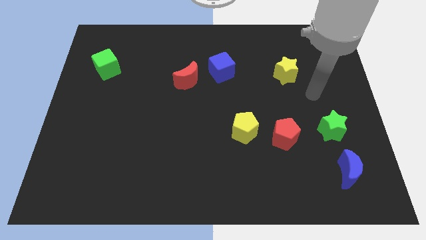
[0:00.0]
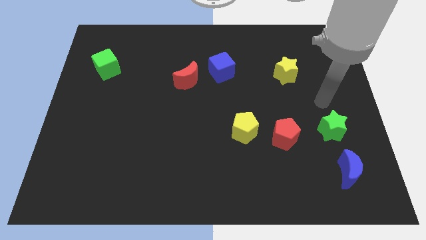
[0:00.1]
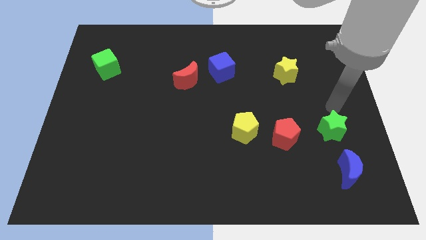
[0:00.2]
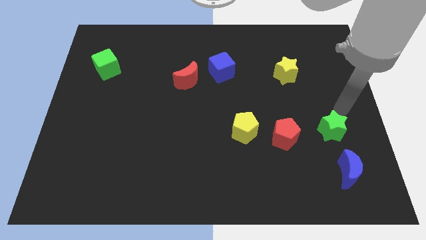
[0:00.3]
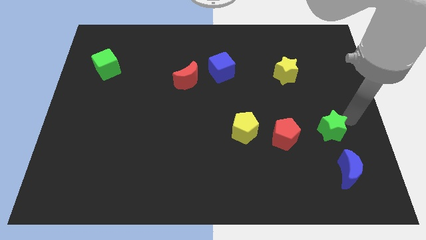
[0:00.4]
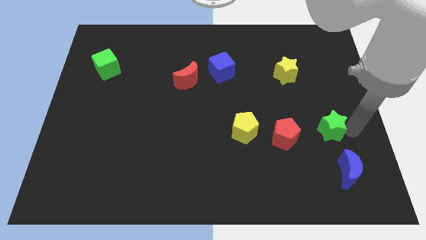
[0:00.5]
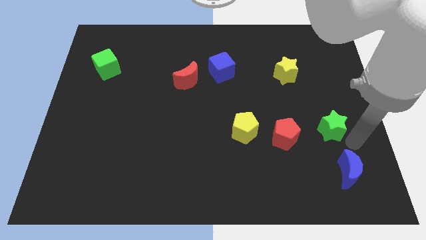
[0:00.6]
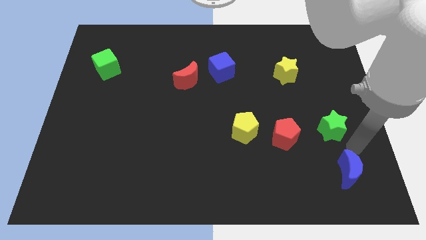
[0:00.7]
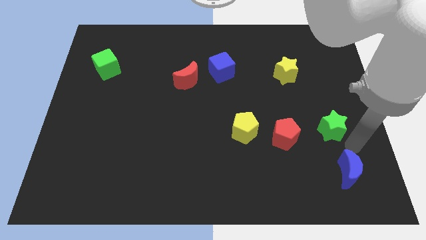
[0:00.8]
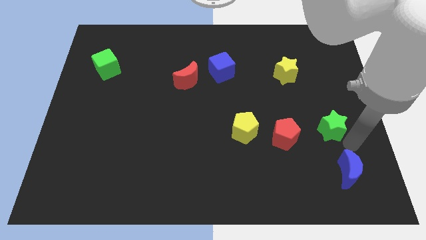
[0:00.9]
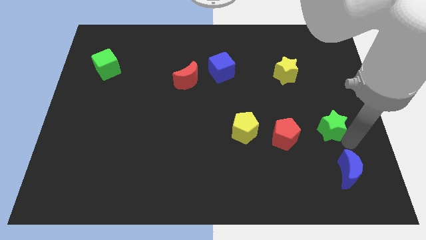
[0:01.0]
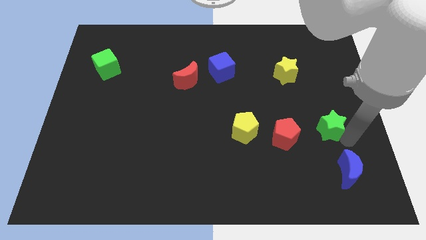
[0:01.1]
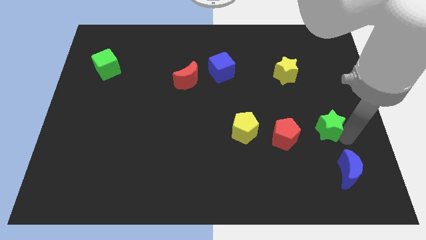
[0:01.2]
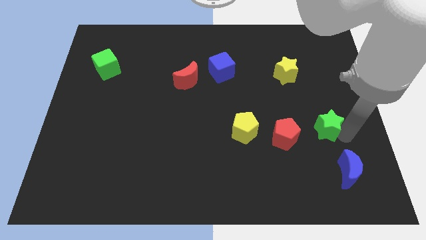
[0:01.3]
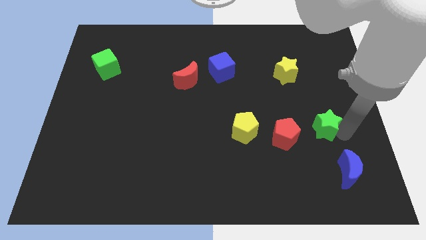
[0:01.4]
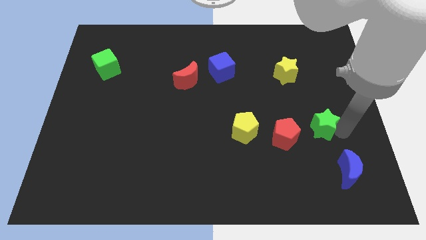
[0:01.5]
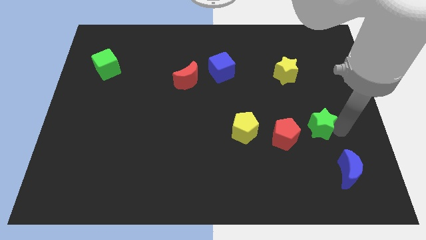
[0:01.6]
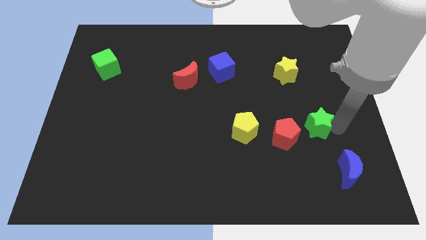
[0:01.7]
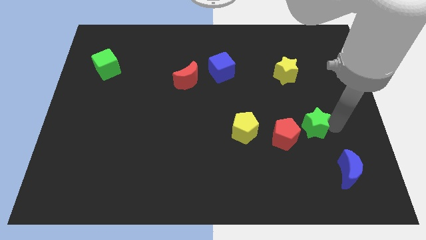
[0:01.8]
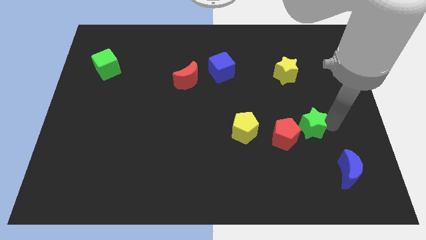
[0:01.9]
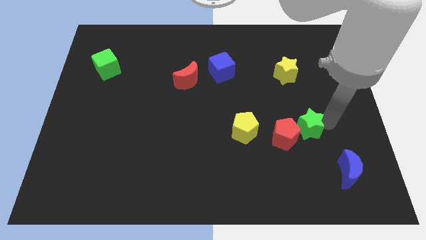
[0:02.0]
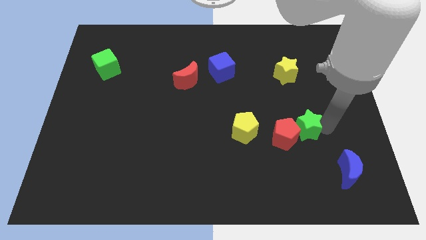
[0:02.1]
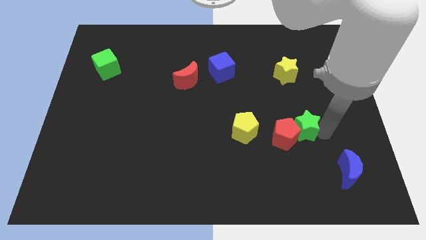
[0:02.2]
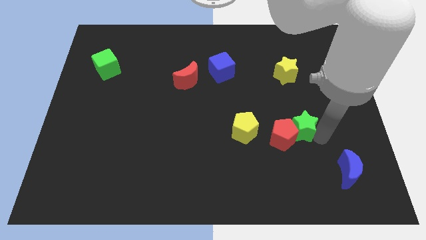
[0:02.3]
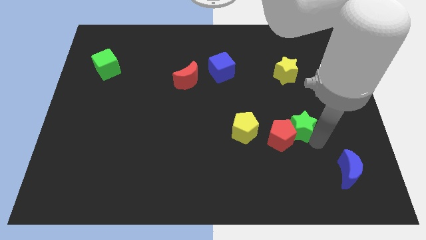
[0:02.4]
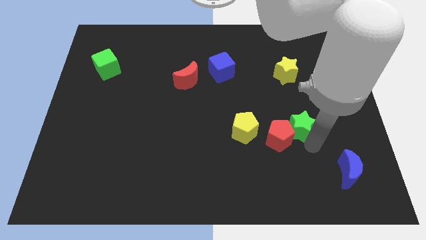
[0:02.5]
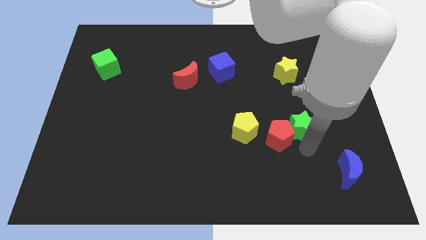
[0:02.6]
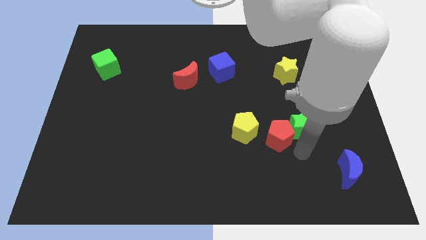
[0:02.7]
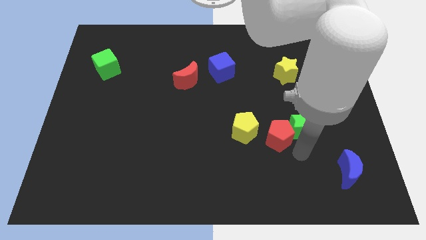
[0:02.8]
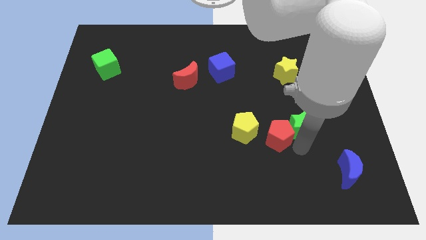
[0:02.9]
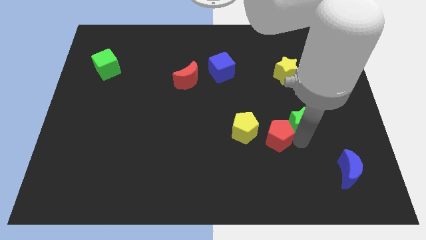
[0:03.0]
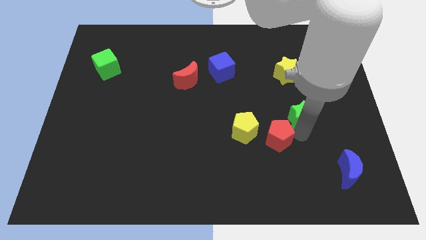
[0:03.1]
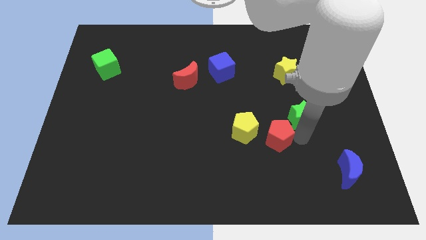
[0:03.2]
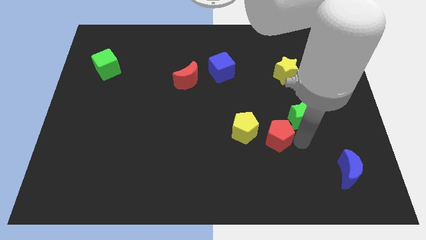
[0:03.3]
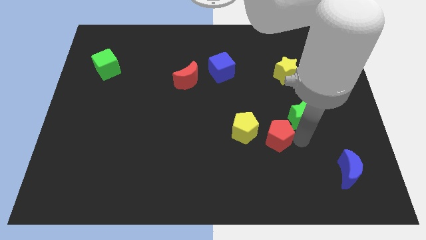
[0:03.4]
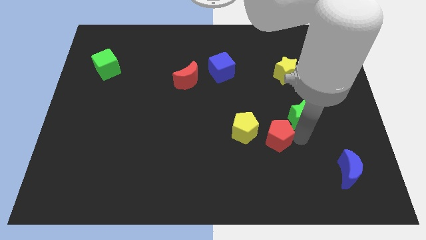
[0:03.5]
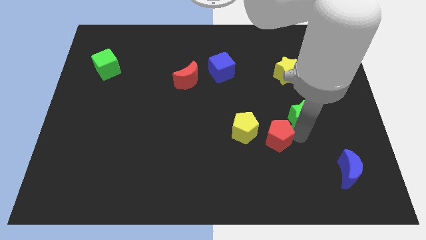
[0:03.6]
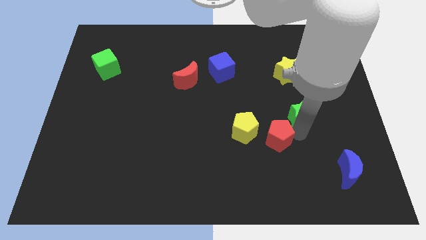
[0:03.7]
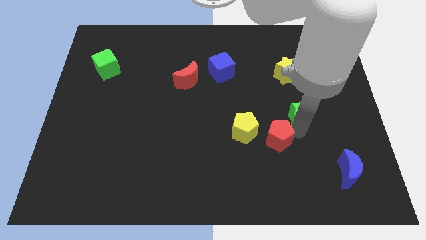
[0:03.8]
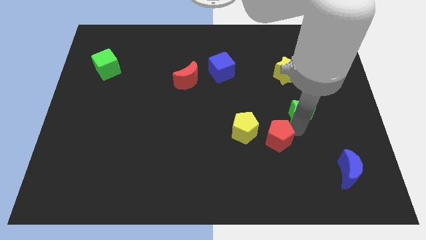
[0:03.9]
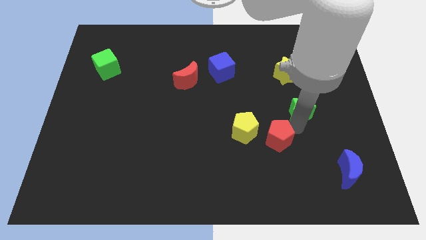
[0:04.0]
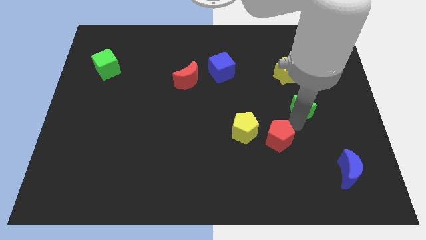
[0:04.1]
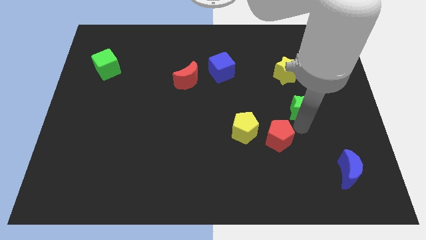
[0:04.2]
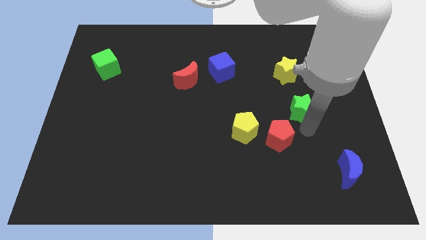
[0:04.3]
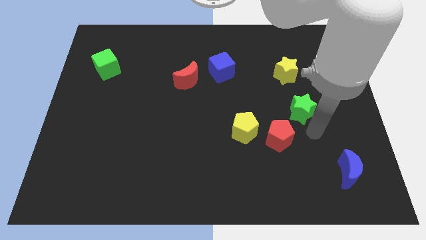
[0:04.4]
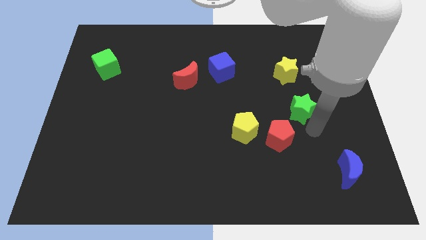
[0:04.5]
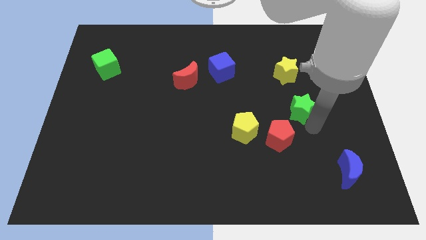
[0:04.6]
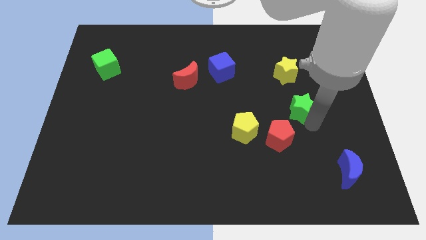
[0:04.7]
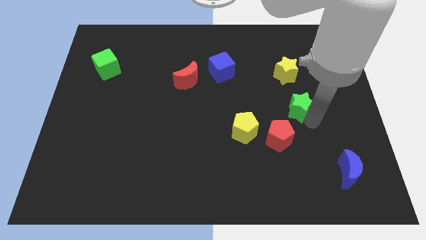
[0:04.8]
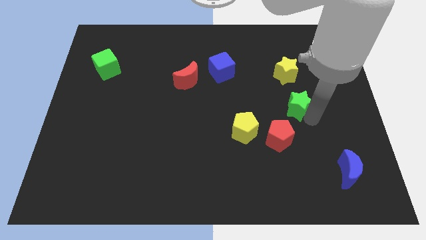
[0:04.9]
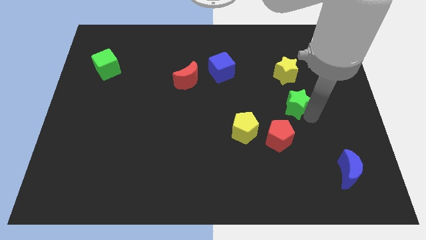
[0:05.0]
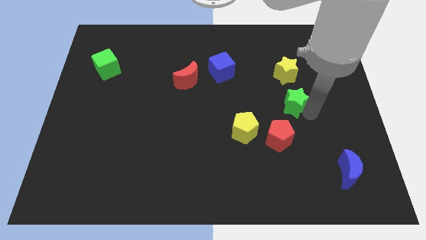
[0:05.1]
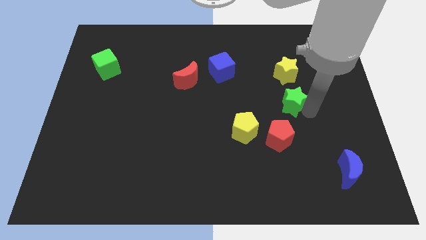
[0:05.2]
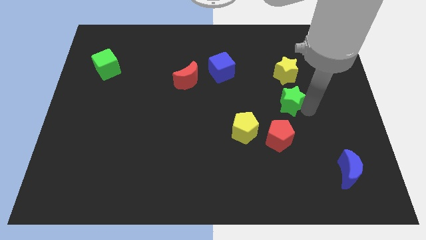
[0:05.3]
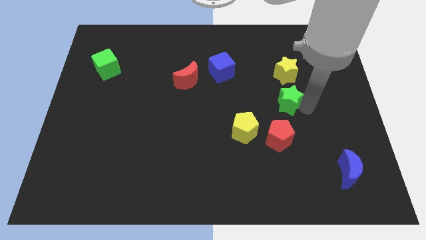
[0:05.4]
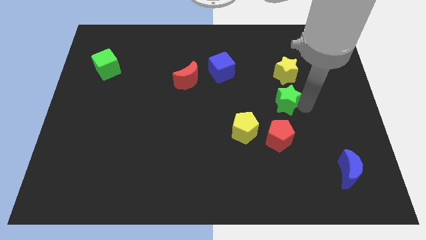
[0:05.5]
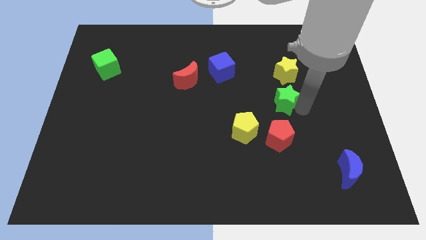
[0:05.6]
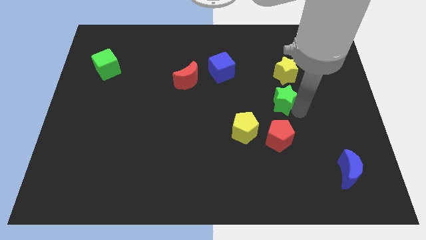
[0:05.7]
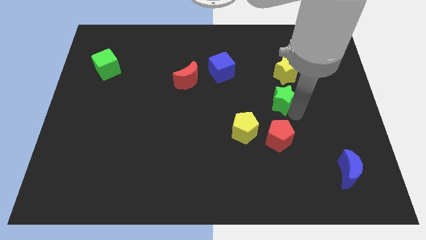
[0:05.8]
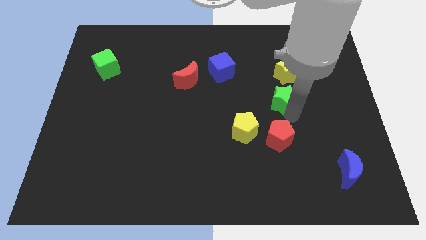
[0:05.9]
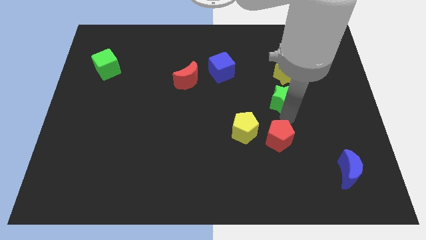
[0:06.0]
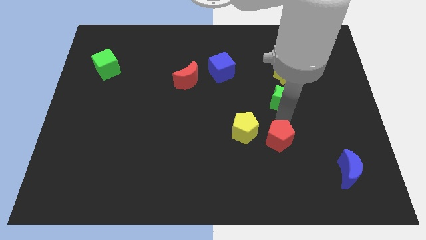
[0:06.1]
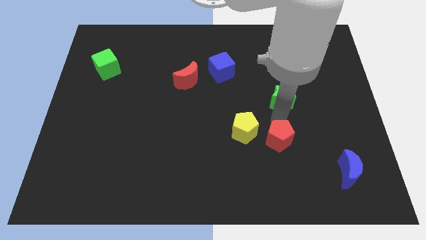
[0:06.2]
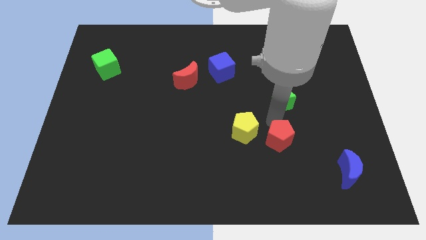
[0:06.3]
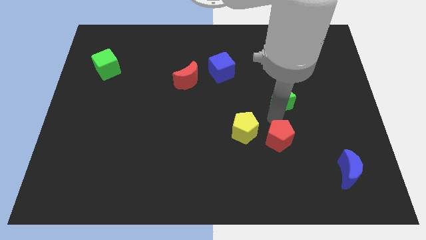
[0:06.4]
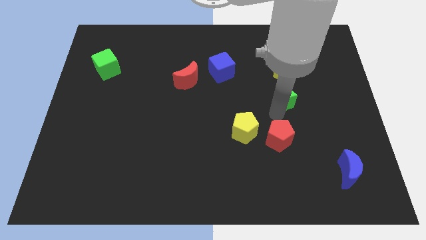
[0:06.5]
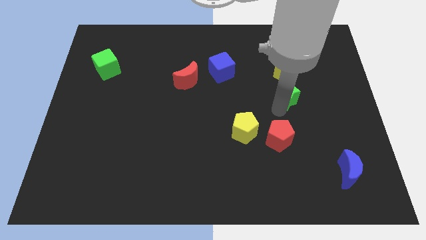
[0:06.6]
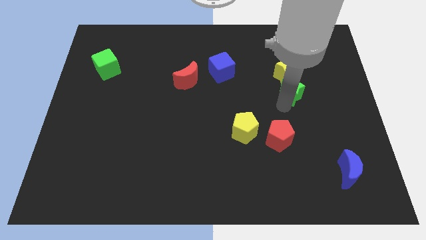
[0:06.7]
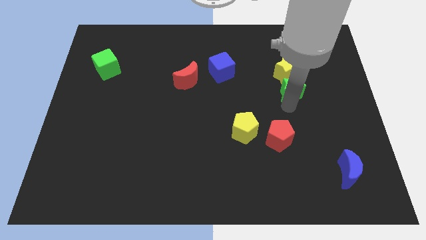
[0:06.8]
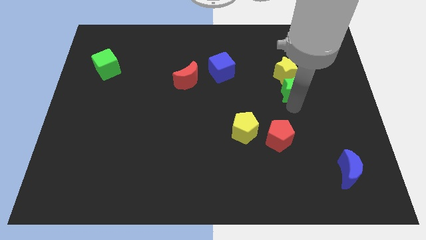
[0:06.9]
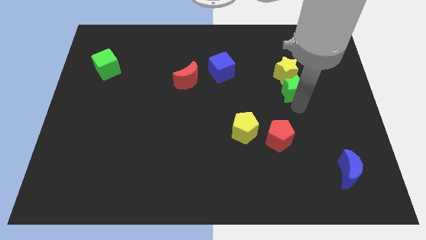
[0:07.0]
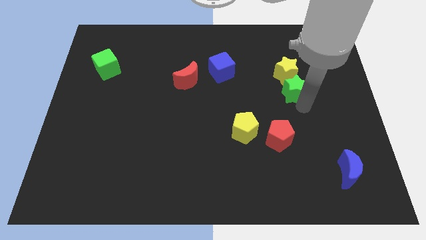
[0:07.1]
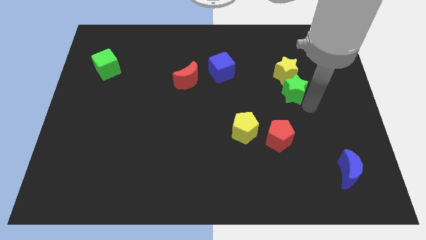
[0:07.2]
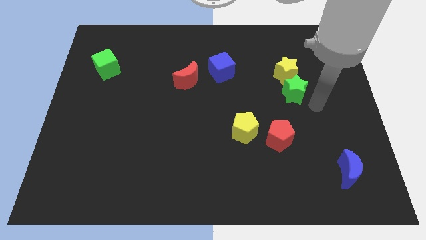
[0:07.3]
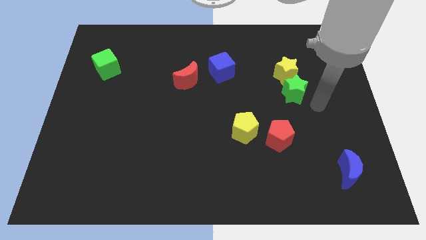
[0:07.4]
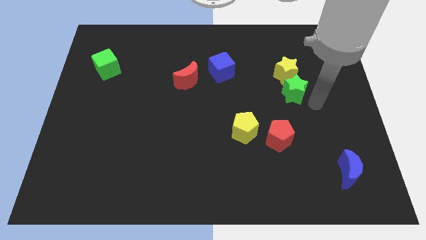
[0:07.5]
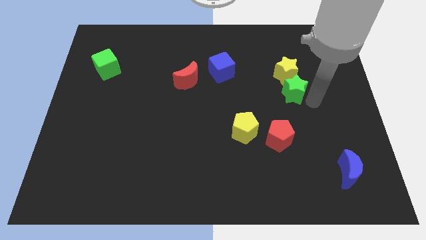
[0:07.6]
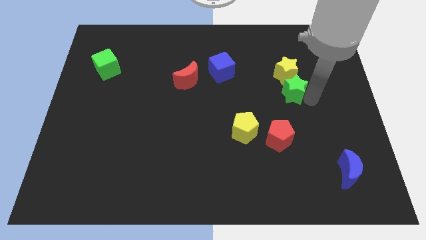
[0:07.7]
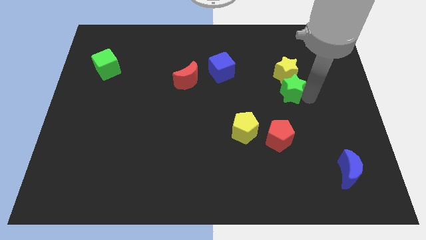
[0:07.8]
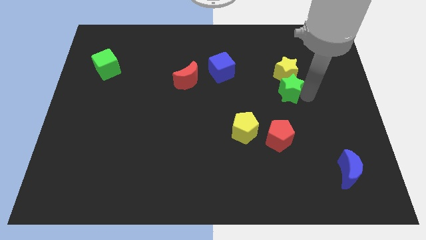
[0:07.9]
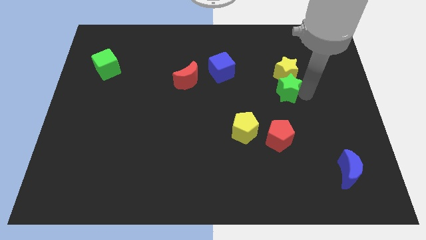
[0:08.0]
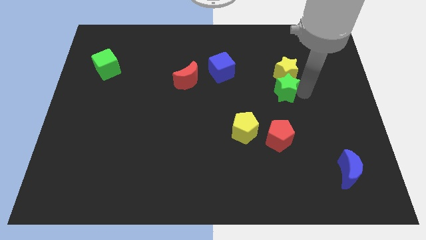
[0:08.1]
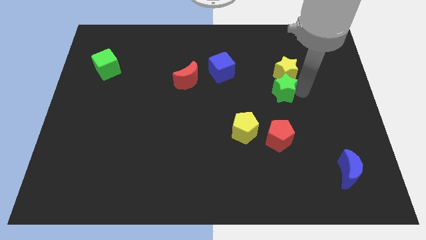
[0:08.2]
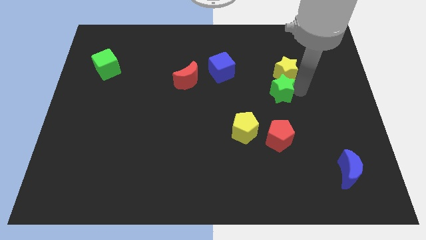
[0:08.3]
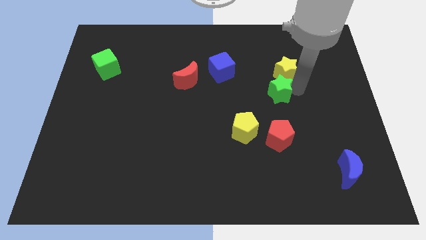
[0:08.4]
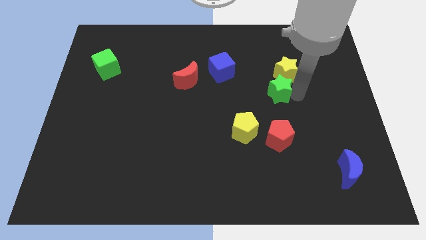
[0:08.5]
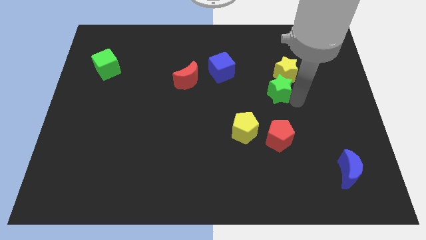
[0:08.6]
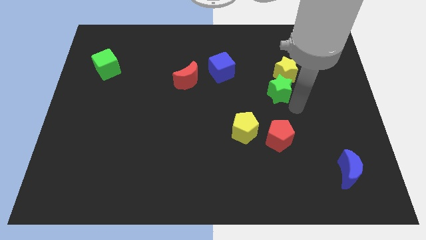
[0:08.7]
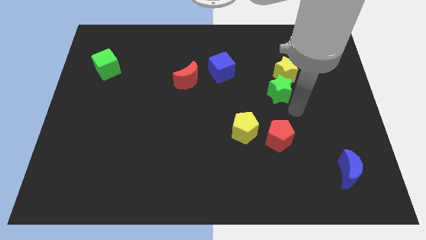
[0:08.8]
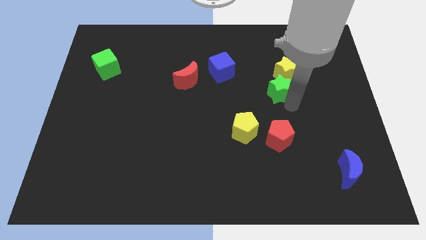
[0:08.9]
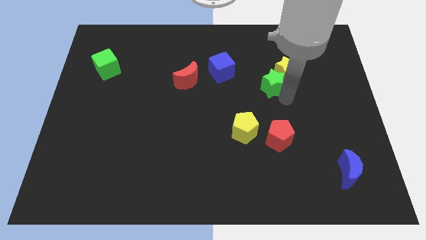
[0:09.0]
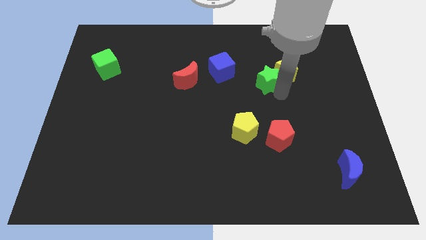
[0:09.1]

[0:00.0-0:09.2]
move the green star right of the blue cube
